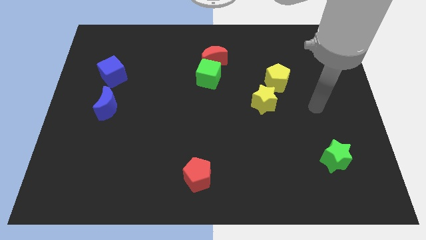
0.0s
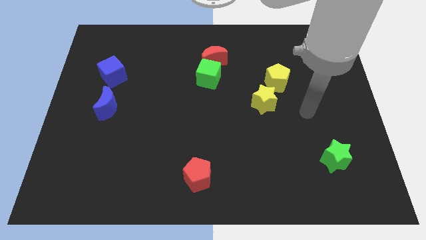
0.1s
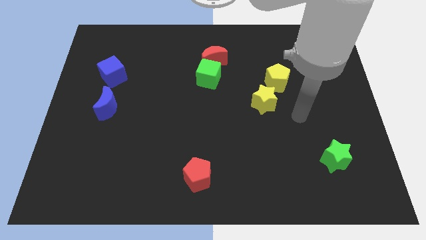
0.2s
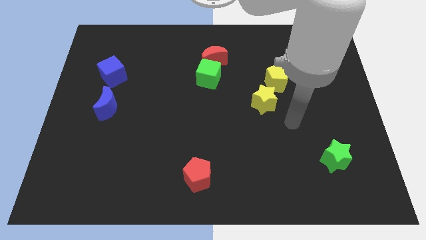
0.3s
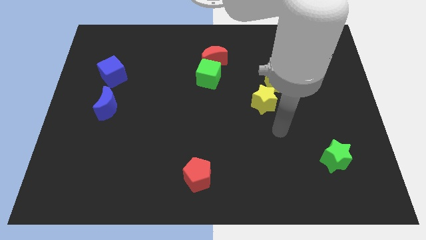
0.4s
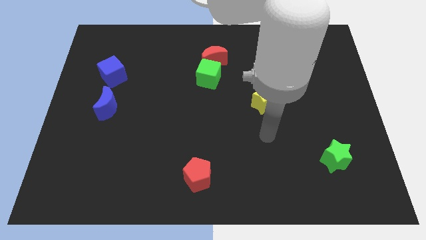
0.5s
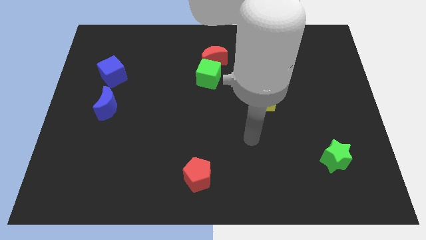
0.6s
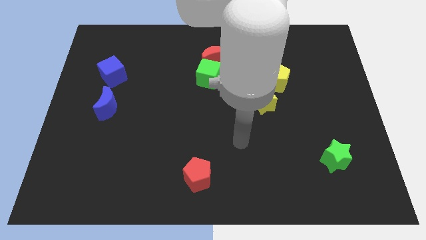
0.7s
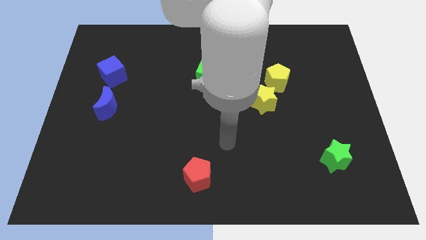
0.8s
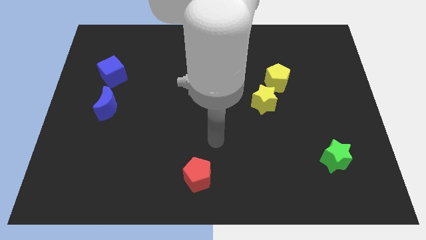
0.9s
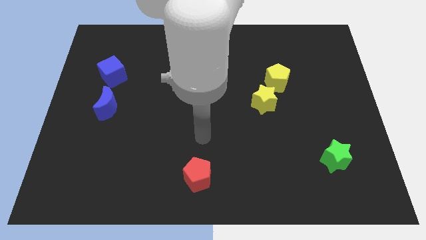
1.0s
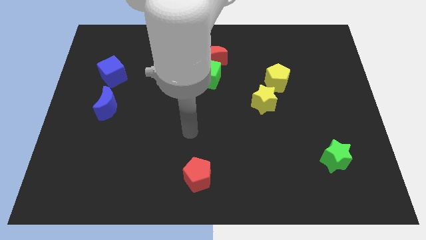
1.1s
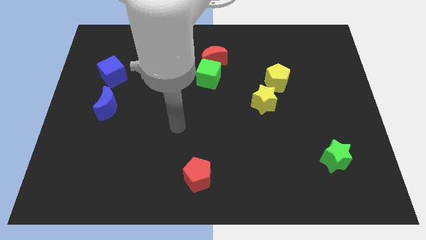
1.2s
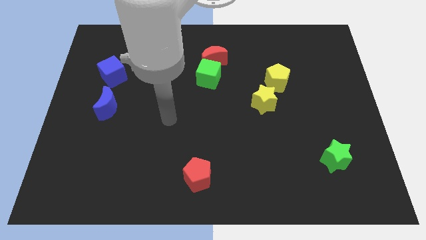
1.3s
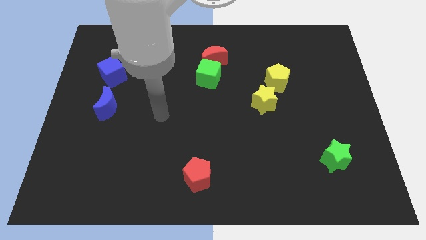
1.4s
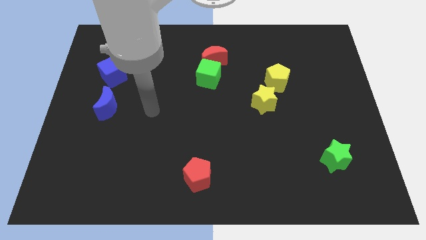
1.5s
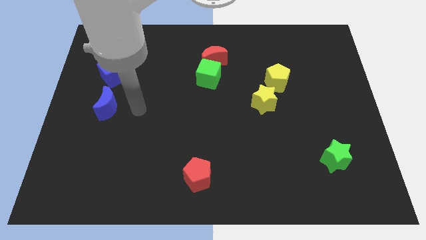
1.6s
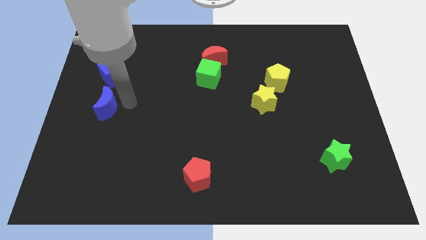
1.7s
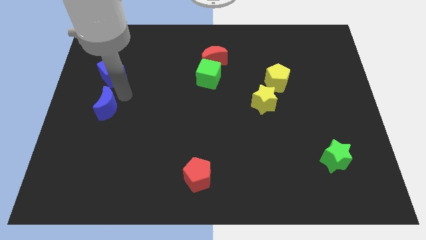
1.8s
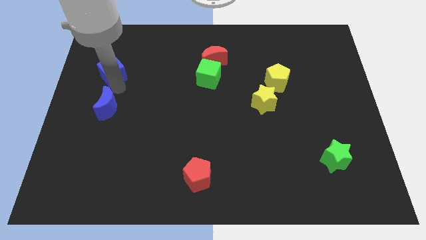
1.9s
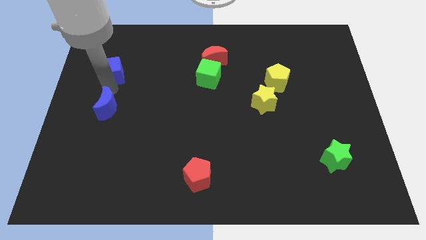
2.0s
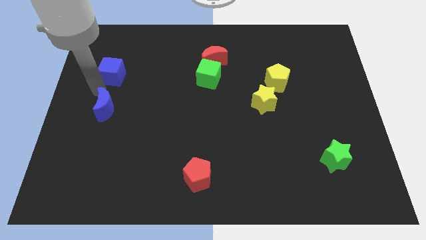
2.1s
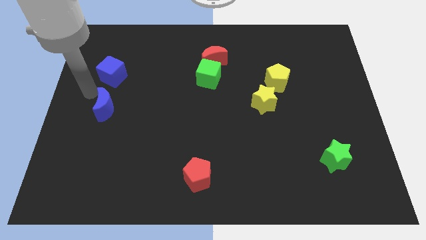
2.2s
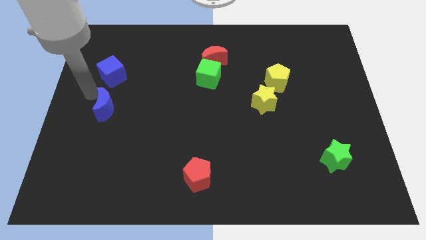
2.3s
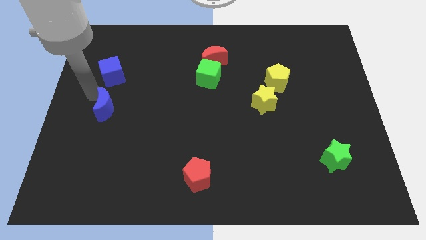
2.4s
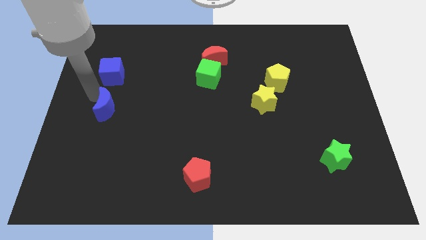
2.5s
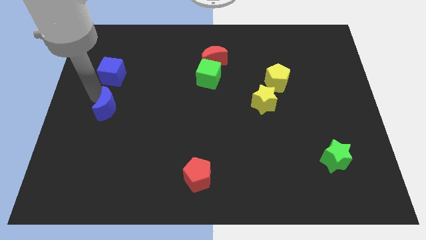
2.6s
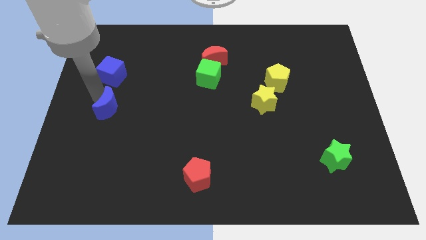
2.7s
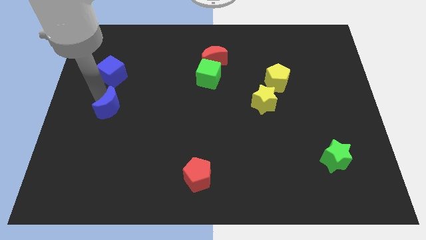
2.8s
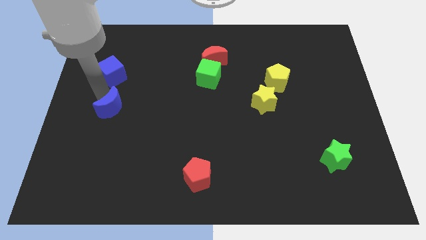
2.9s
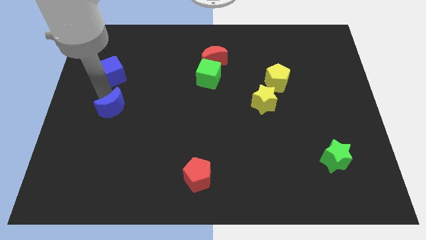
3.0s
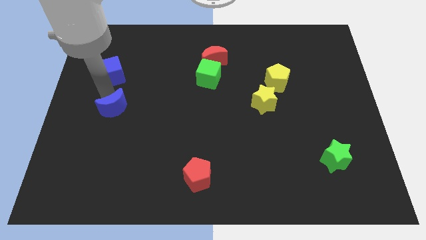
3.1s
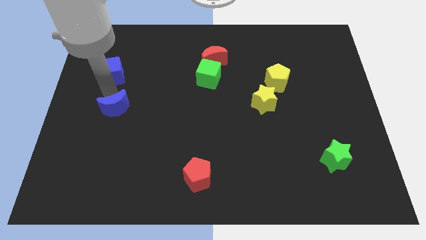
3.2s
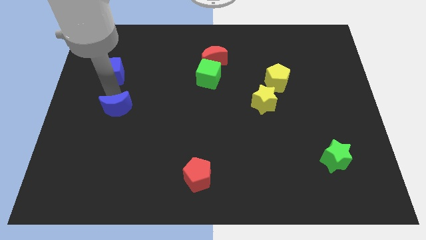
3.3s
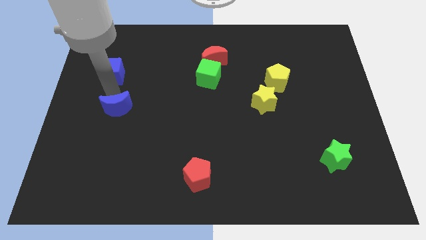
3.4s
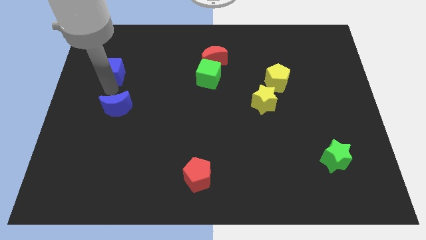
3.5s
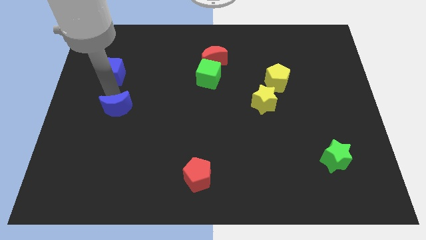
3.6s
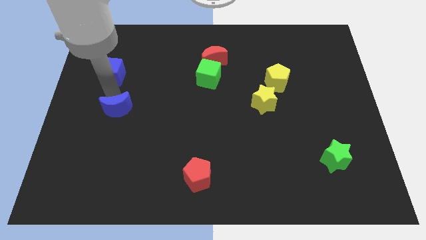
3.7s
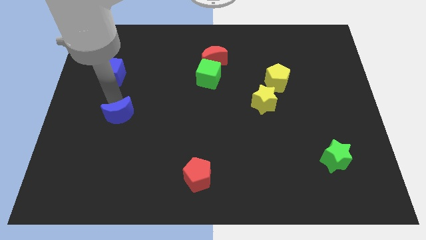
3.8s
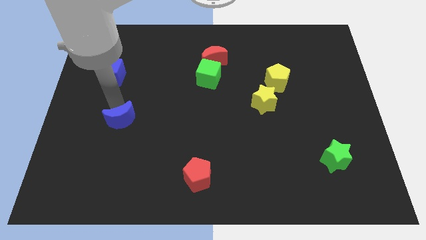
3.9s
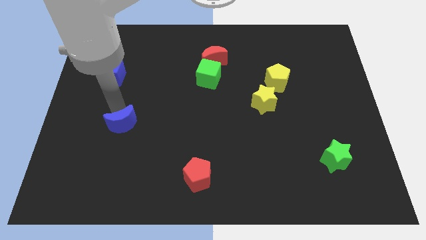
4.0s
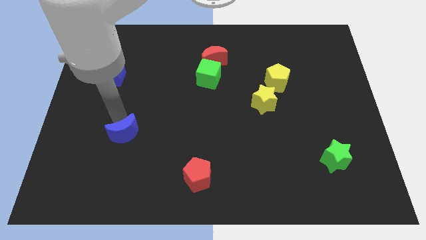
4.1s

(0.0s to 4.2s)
push the blue moon a little bit downwards and right diagonally

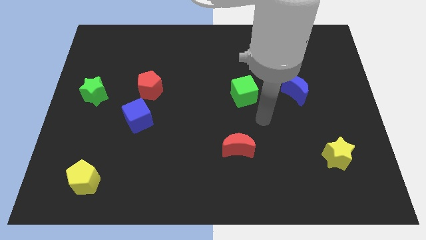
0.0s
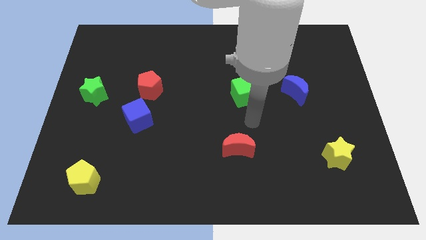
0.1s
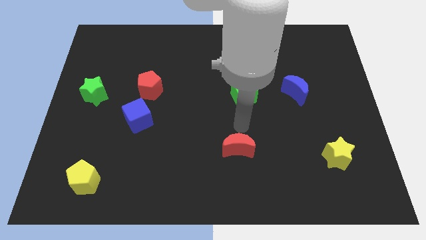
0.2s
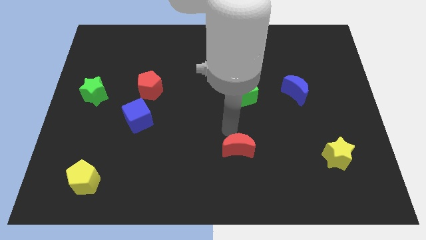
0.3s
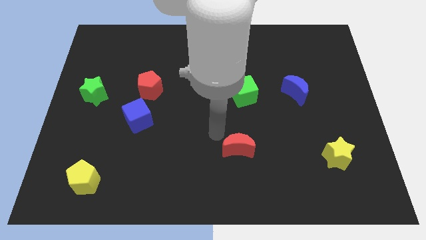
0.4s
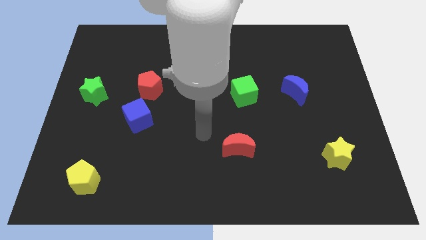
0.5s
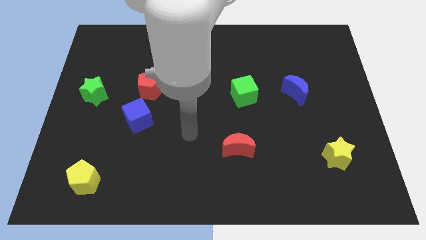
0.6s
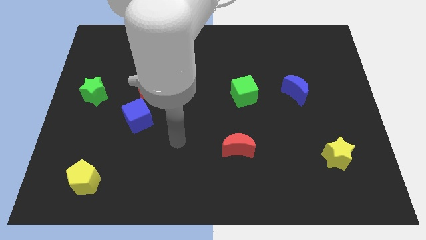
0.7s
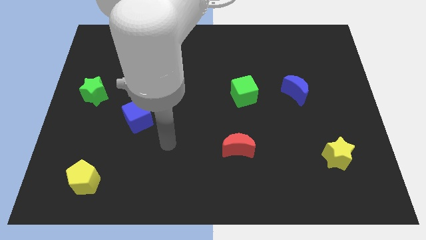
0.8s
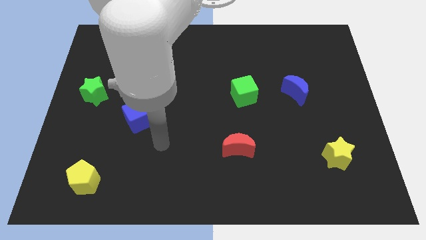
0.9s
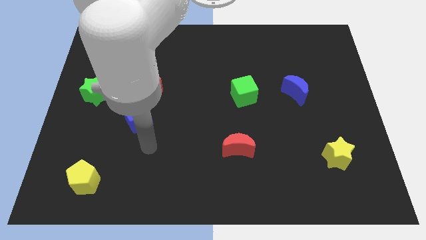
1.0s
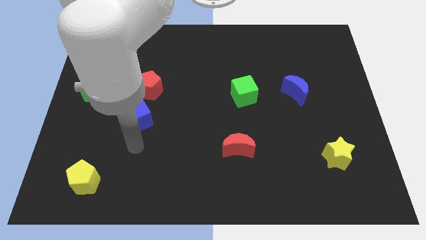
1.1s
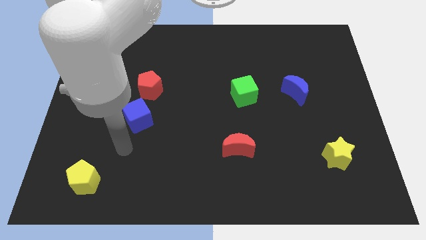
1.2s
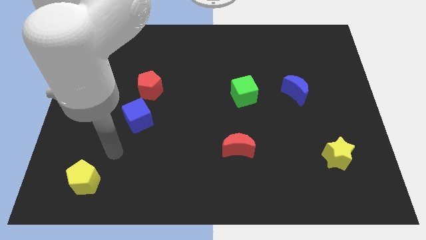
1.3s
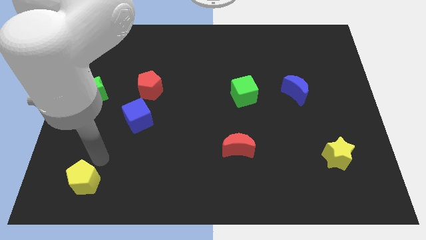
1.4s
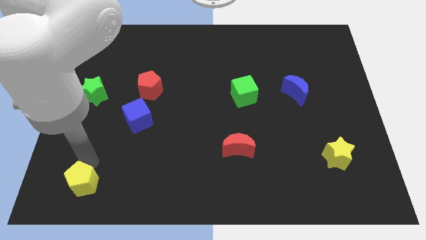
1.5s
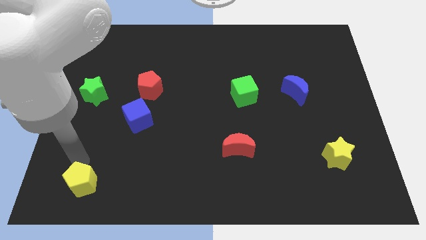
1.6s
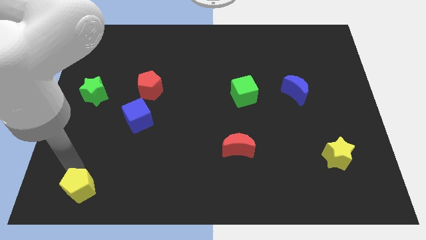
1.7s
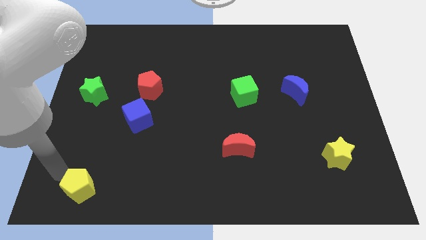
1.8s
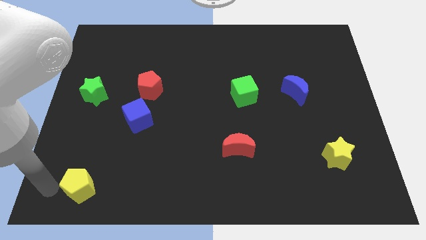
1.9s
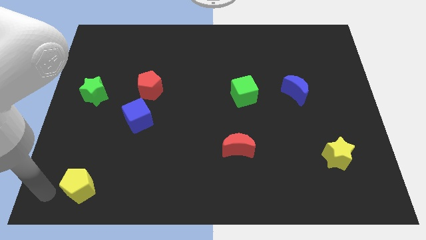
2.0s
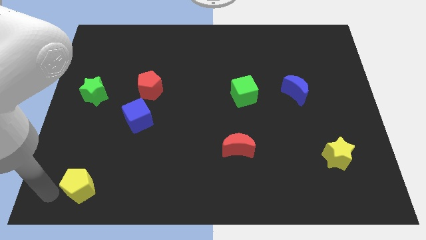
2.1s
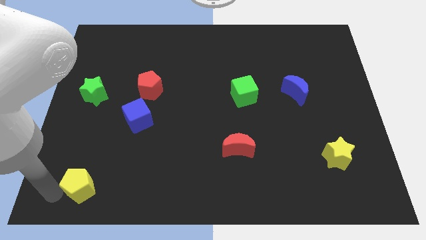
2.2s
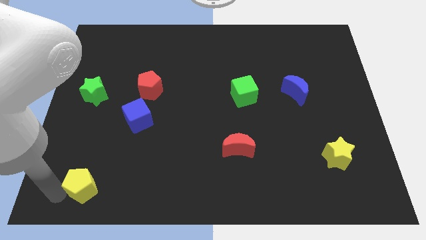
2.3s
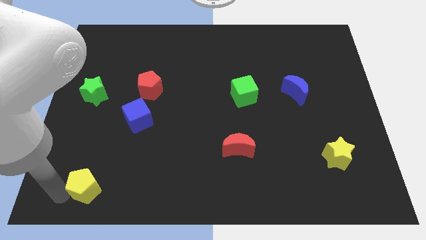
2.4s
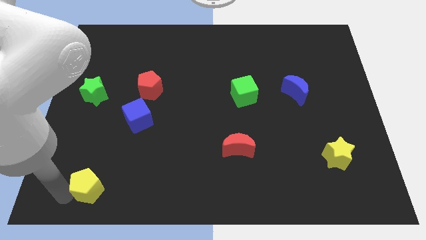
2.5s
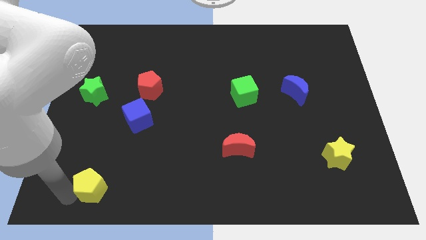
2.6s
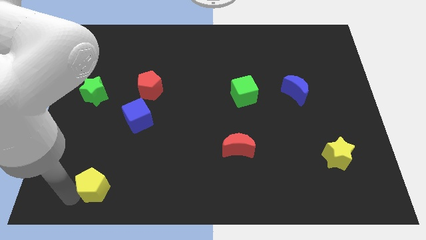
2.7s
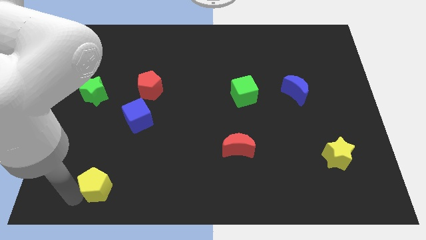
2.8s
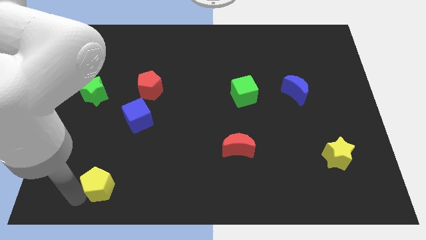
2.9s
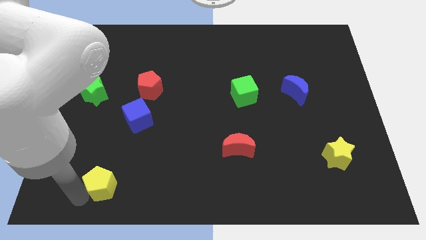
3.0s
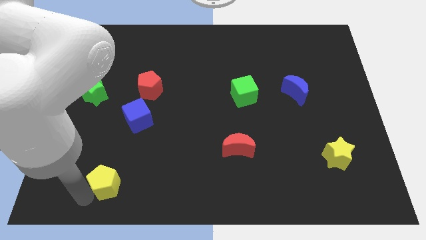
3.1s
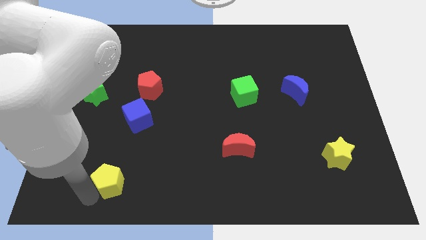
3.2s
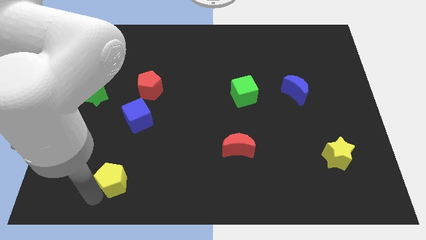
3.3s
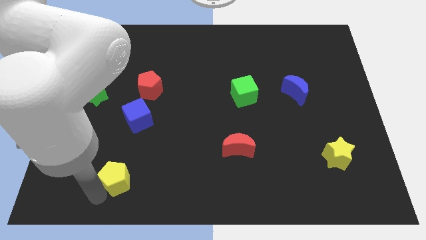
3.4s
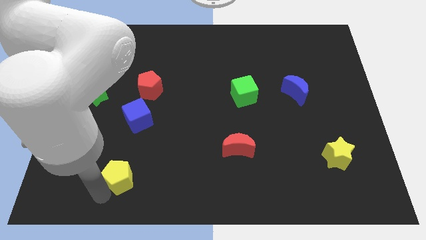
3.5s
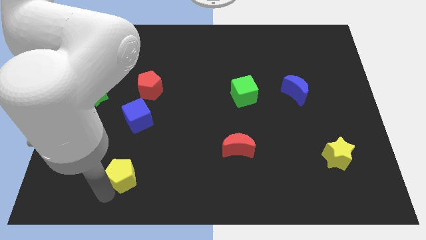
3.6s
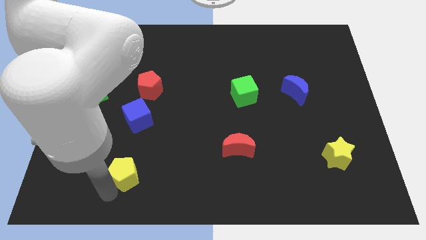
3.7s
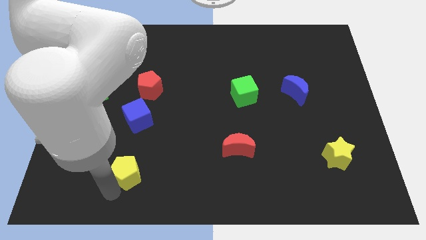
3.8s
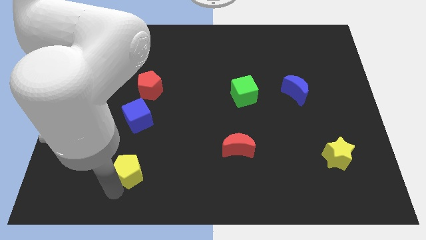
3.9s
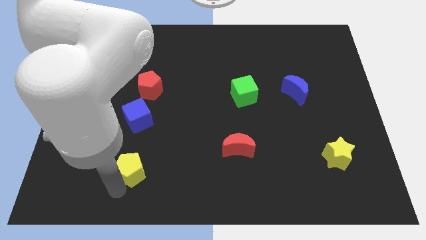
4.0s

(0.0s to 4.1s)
push the yellow pentagon a bit diagonally upwards and to the right
